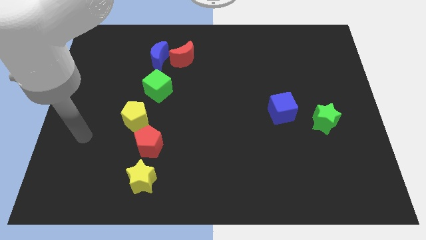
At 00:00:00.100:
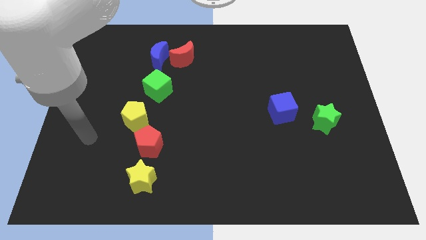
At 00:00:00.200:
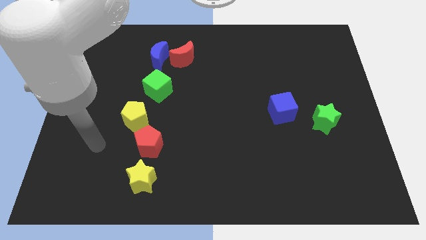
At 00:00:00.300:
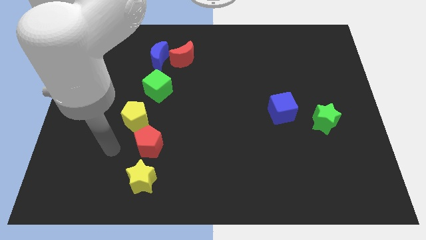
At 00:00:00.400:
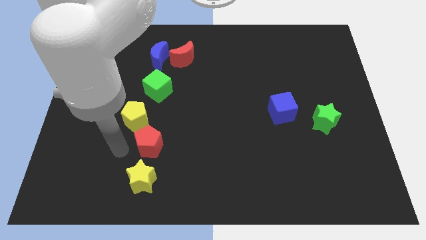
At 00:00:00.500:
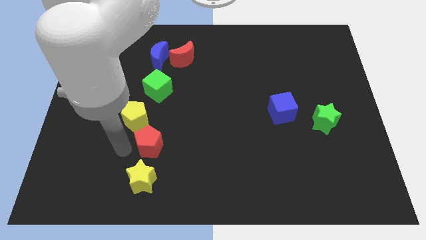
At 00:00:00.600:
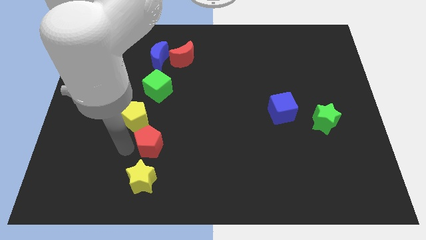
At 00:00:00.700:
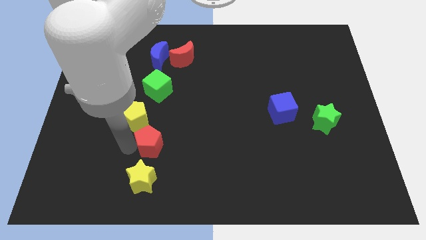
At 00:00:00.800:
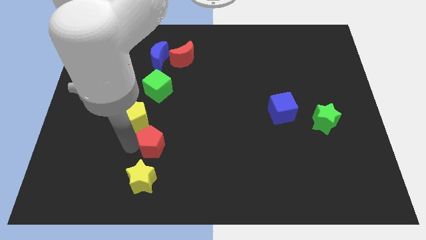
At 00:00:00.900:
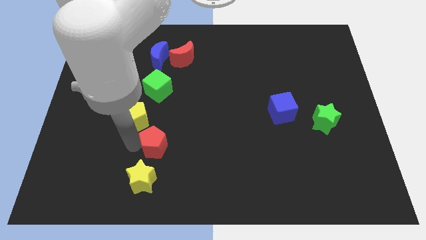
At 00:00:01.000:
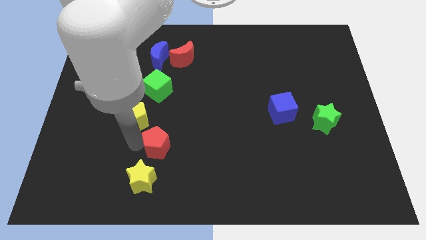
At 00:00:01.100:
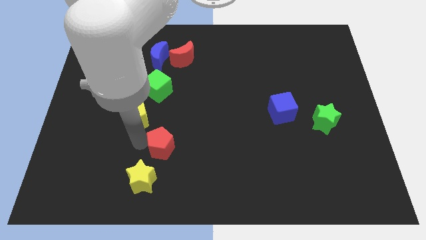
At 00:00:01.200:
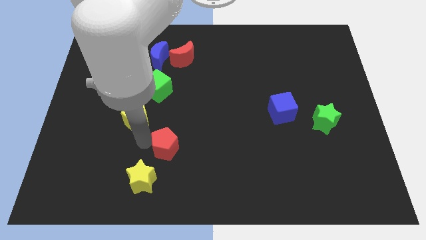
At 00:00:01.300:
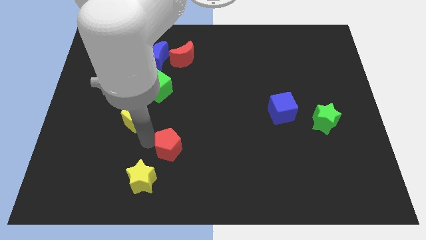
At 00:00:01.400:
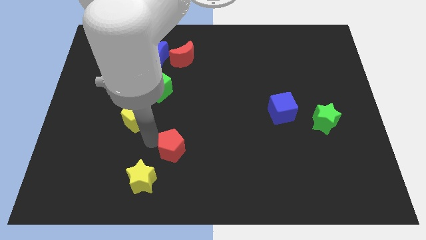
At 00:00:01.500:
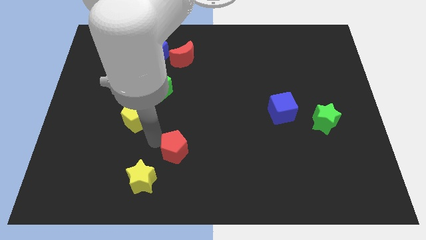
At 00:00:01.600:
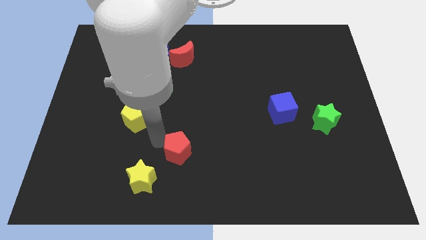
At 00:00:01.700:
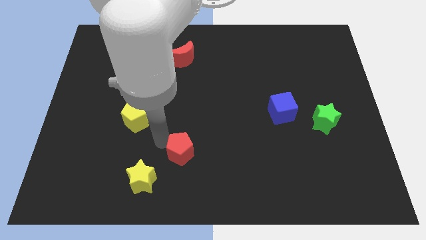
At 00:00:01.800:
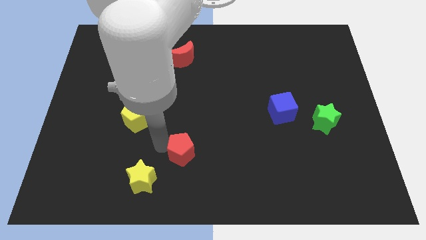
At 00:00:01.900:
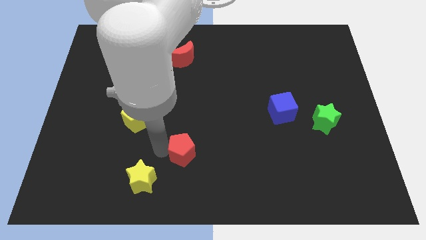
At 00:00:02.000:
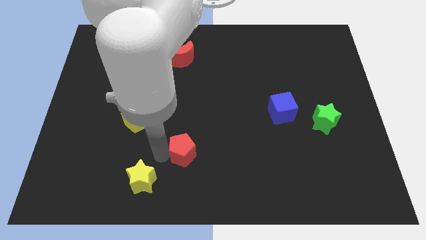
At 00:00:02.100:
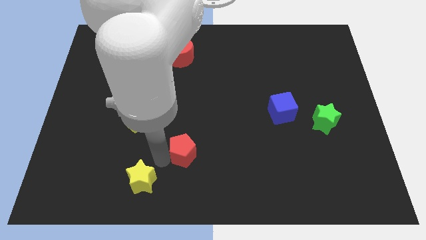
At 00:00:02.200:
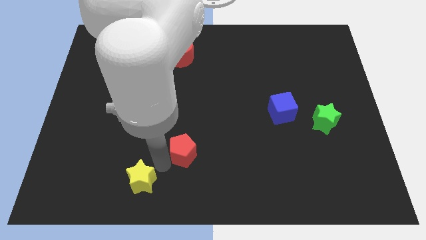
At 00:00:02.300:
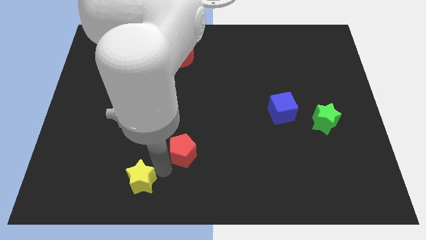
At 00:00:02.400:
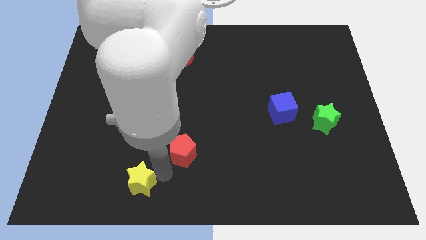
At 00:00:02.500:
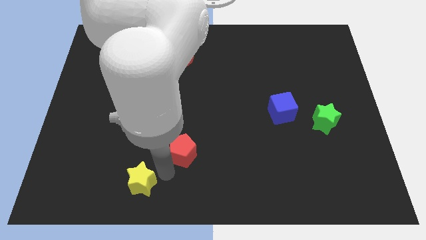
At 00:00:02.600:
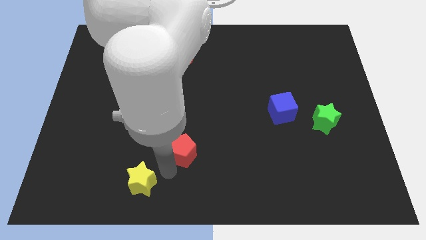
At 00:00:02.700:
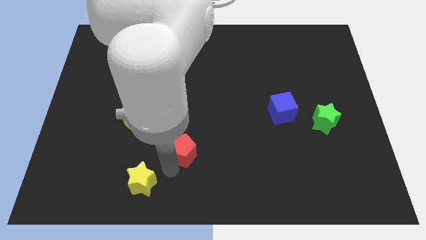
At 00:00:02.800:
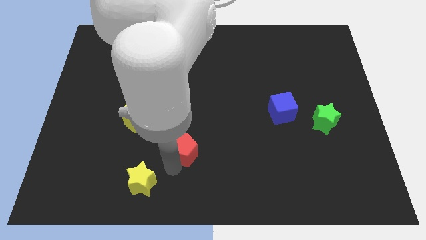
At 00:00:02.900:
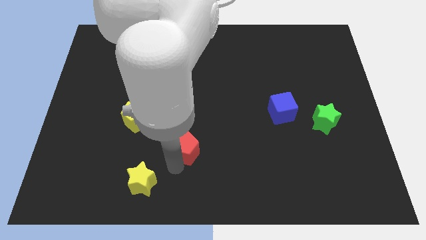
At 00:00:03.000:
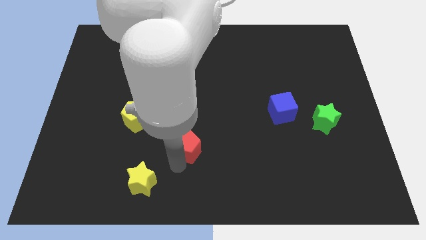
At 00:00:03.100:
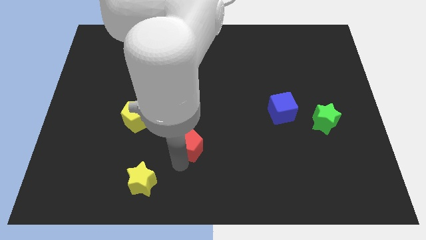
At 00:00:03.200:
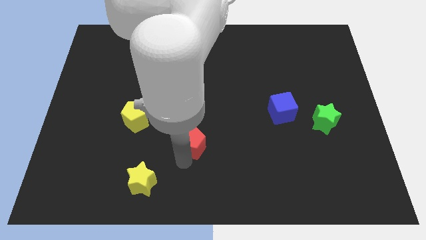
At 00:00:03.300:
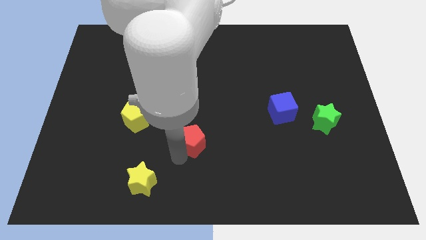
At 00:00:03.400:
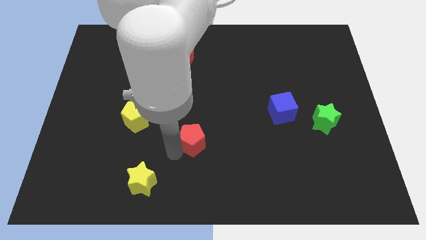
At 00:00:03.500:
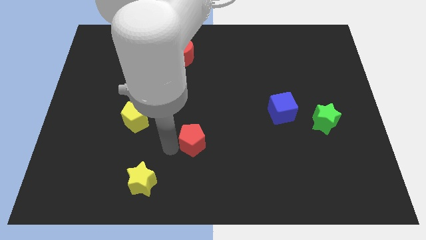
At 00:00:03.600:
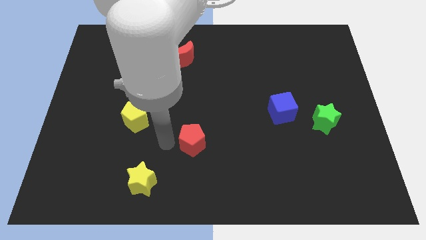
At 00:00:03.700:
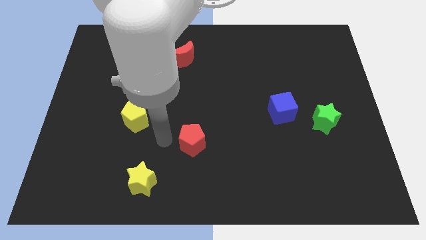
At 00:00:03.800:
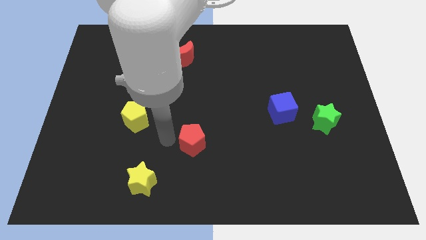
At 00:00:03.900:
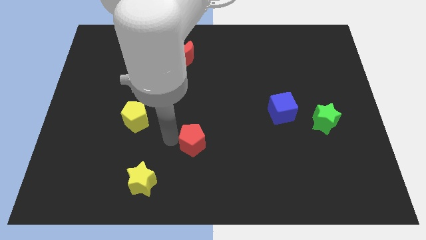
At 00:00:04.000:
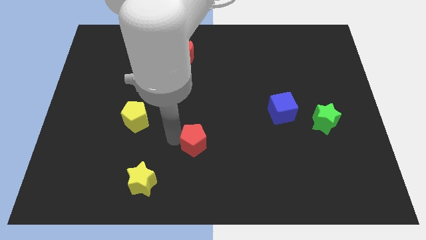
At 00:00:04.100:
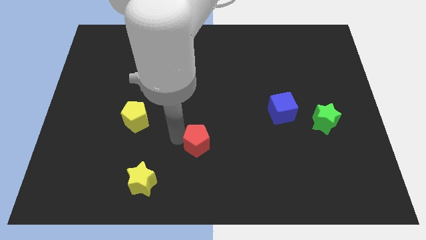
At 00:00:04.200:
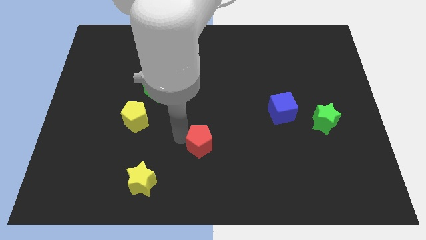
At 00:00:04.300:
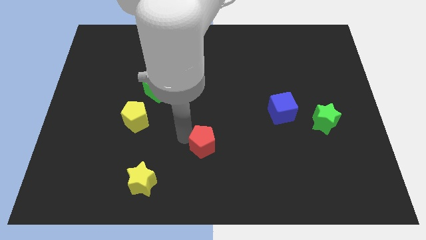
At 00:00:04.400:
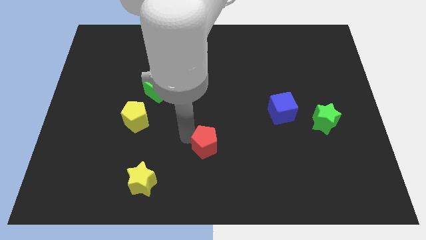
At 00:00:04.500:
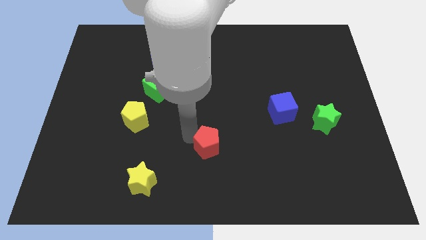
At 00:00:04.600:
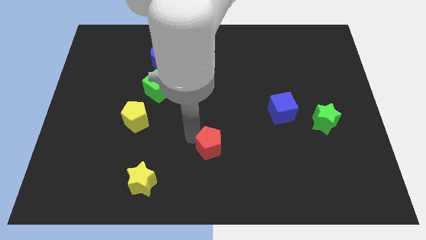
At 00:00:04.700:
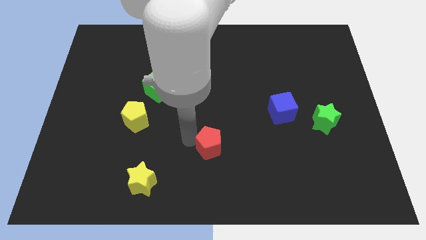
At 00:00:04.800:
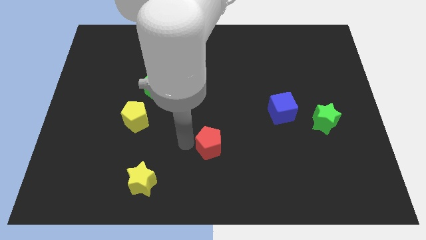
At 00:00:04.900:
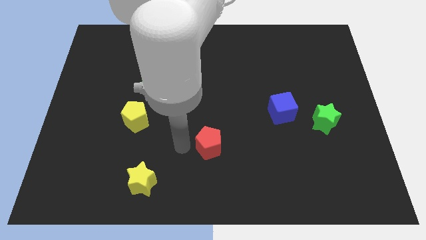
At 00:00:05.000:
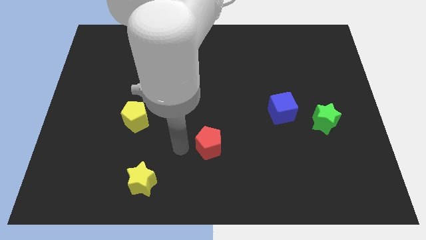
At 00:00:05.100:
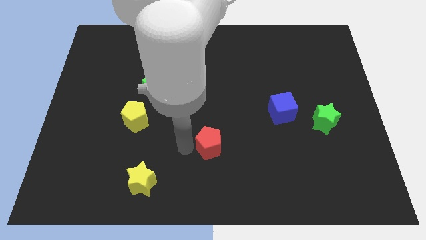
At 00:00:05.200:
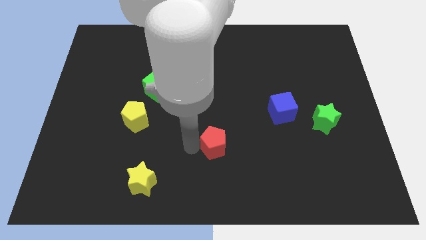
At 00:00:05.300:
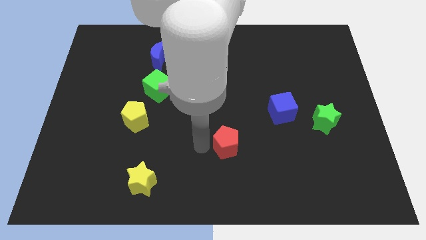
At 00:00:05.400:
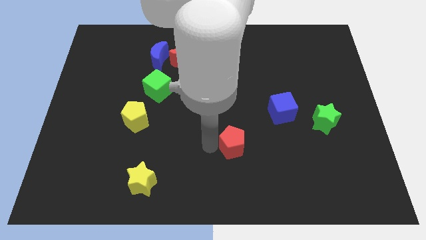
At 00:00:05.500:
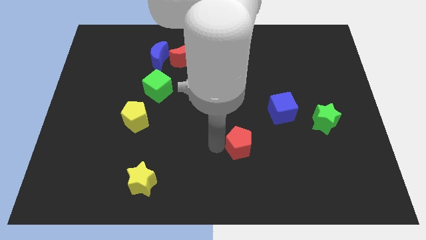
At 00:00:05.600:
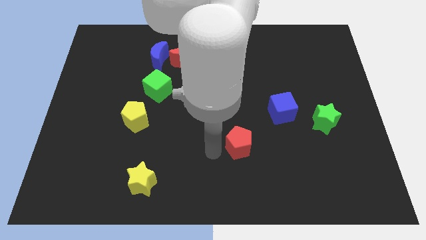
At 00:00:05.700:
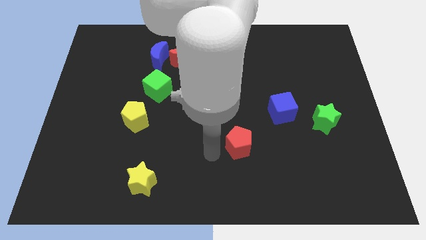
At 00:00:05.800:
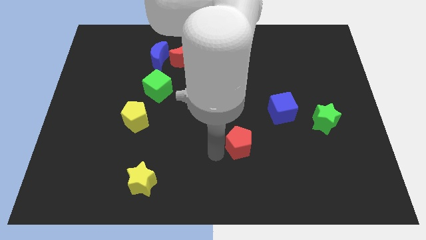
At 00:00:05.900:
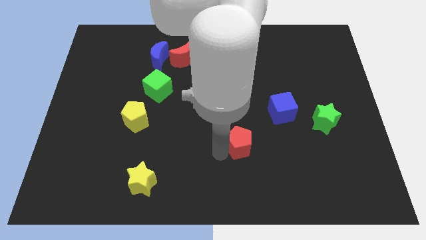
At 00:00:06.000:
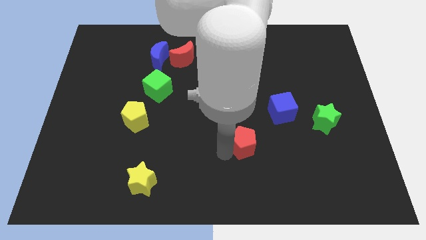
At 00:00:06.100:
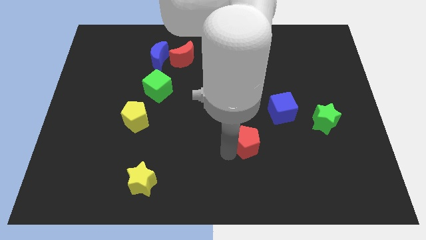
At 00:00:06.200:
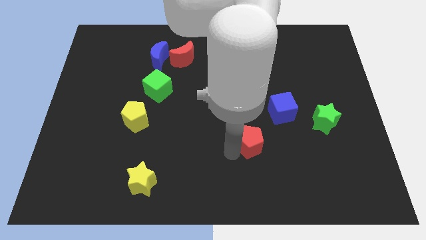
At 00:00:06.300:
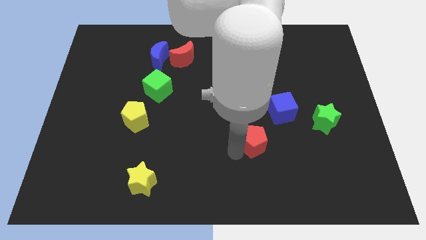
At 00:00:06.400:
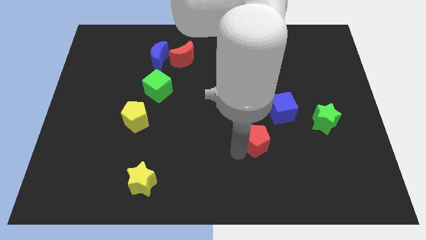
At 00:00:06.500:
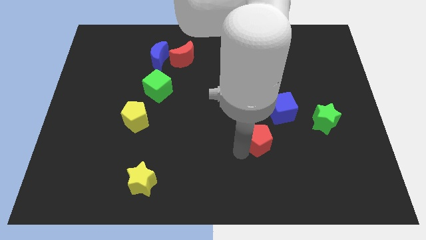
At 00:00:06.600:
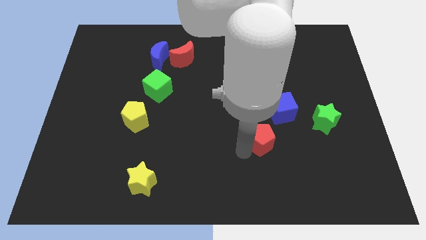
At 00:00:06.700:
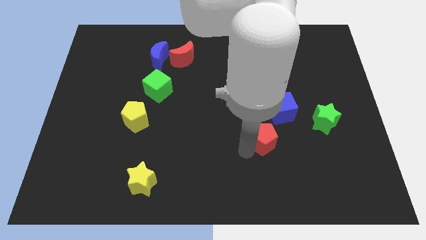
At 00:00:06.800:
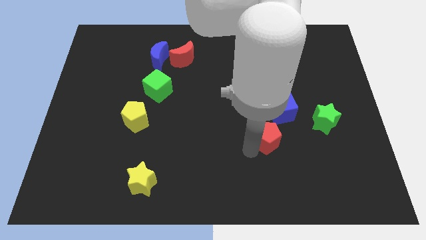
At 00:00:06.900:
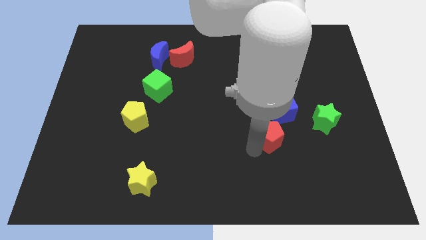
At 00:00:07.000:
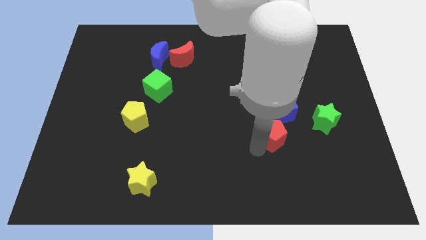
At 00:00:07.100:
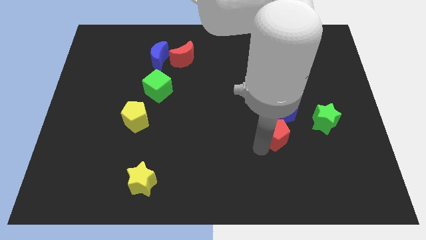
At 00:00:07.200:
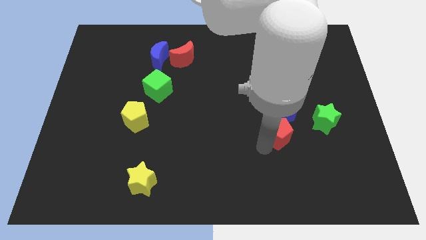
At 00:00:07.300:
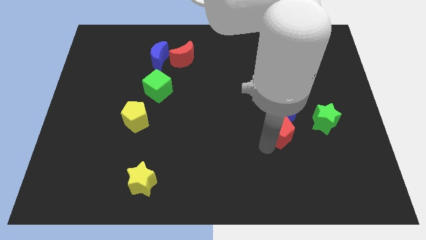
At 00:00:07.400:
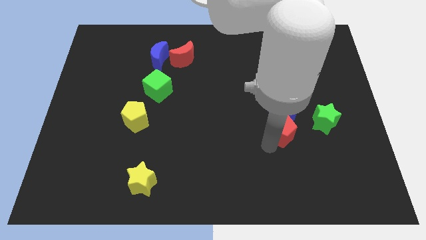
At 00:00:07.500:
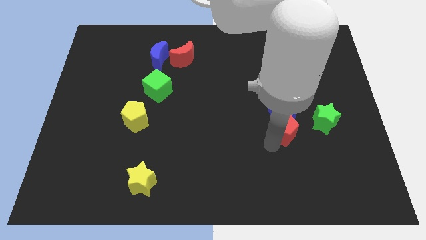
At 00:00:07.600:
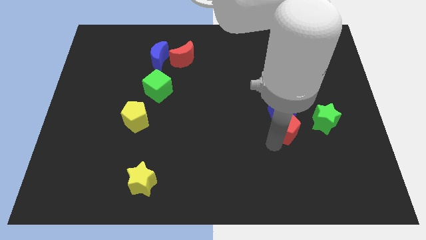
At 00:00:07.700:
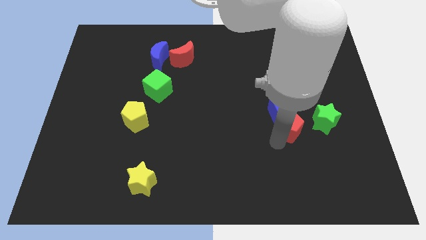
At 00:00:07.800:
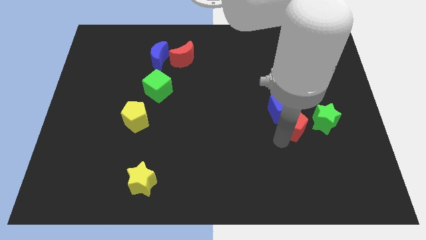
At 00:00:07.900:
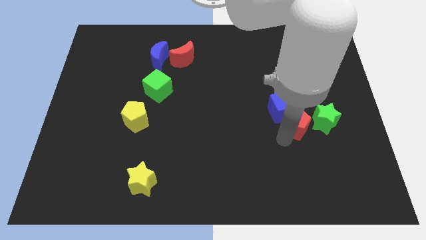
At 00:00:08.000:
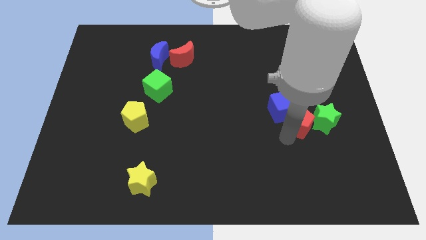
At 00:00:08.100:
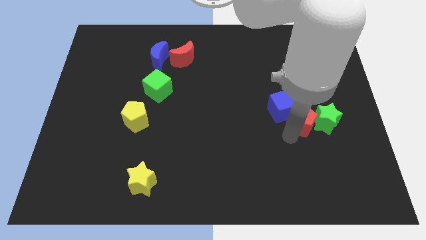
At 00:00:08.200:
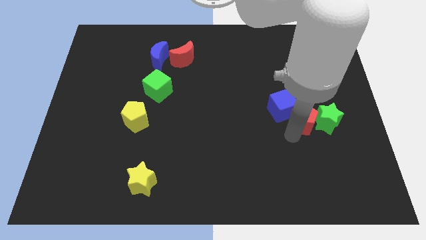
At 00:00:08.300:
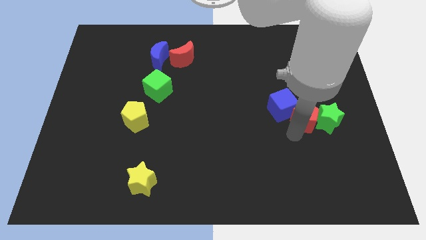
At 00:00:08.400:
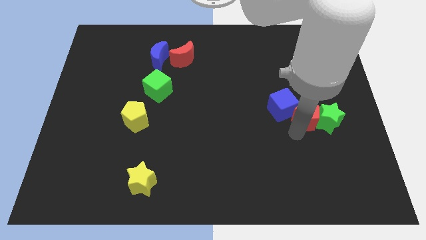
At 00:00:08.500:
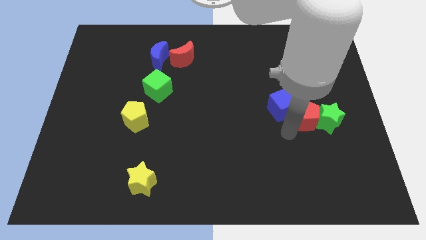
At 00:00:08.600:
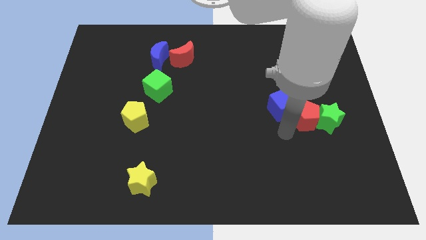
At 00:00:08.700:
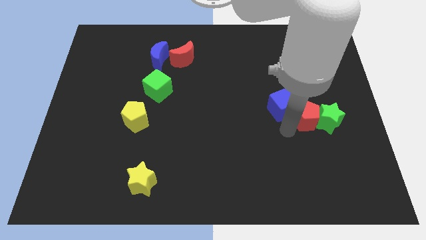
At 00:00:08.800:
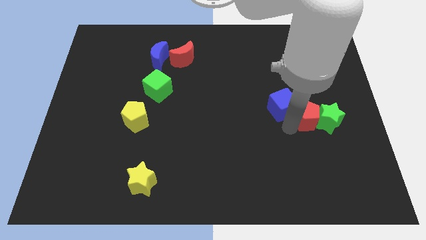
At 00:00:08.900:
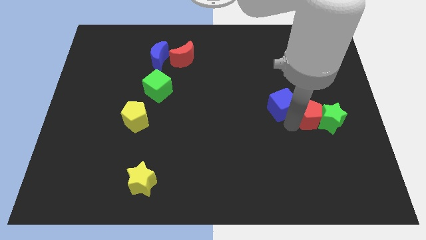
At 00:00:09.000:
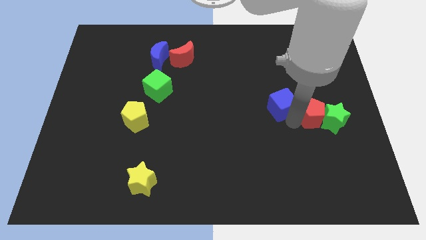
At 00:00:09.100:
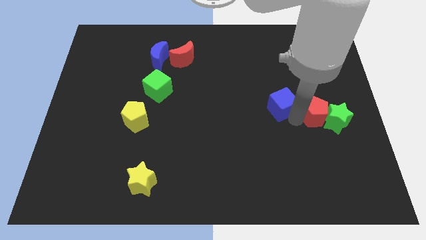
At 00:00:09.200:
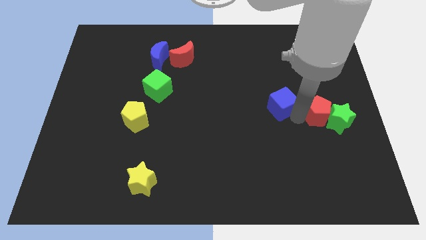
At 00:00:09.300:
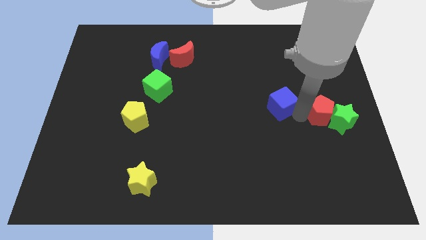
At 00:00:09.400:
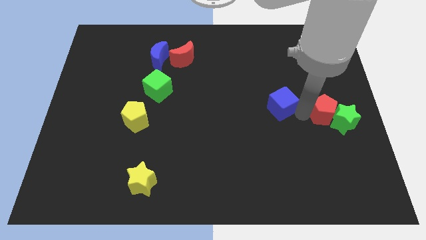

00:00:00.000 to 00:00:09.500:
move the red pentagon to the right side of the board
